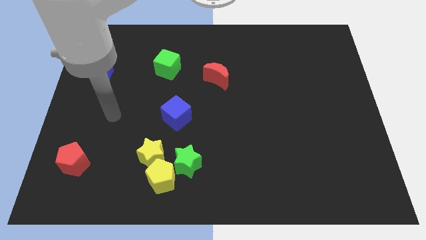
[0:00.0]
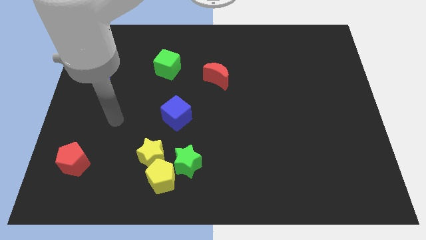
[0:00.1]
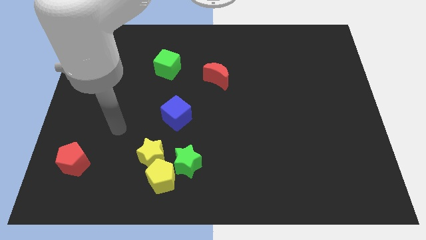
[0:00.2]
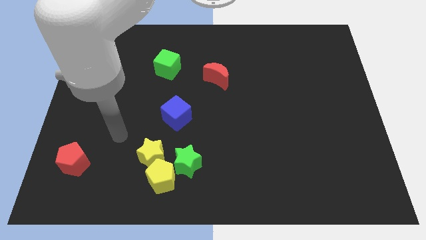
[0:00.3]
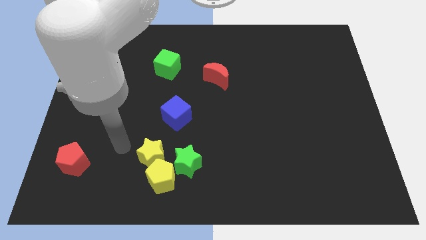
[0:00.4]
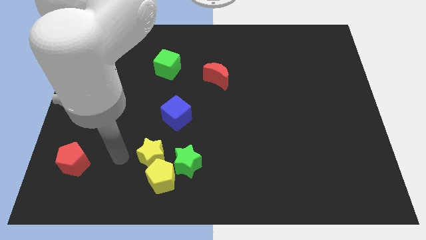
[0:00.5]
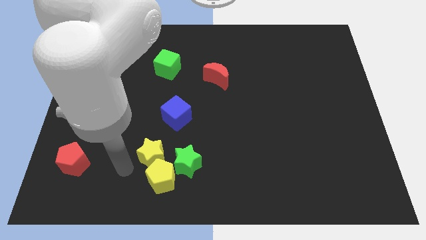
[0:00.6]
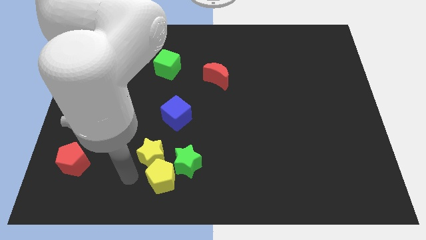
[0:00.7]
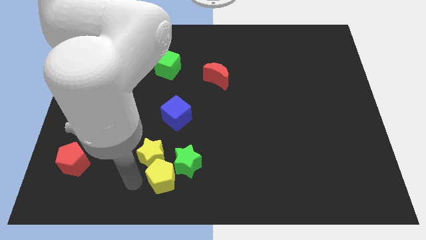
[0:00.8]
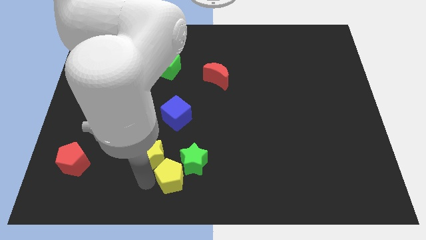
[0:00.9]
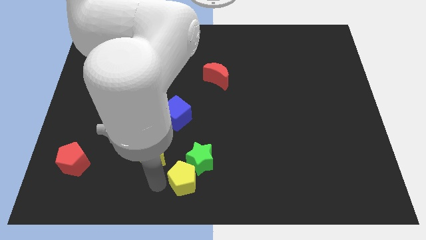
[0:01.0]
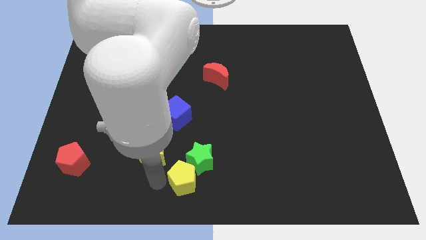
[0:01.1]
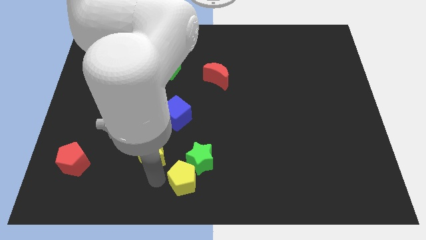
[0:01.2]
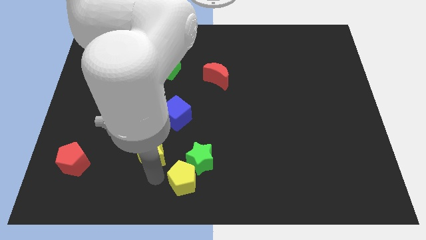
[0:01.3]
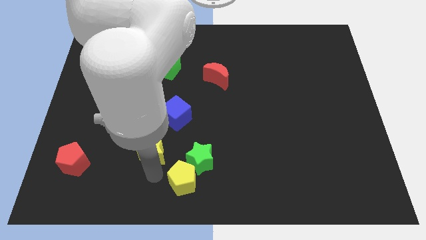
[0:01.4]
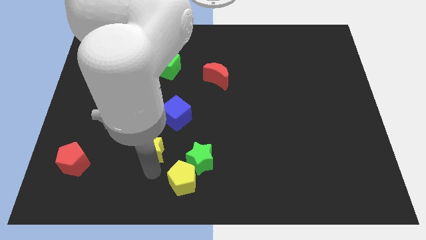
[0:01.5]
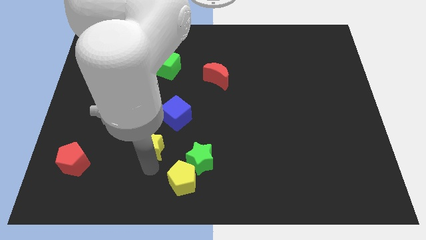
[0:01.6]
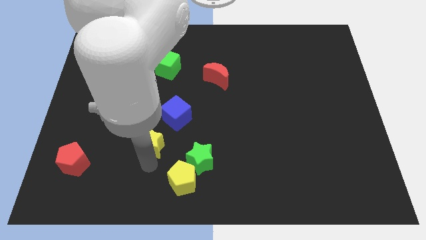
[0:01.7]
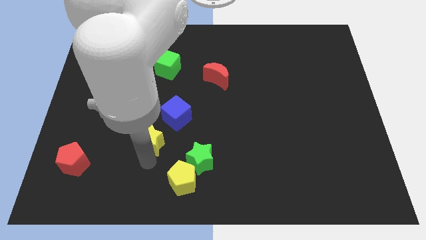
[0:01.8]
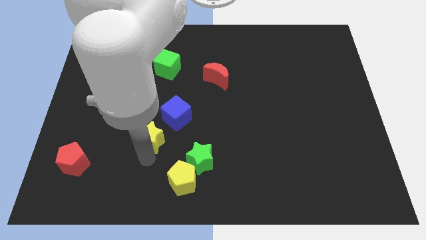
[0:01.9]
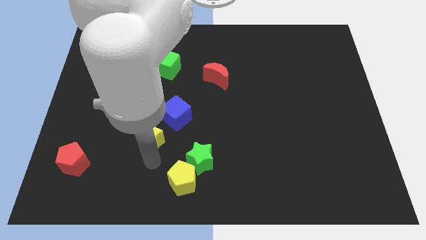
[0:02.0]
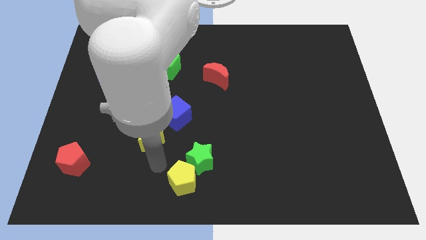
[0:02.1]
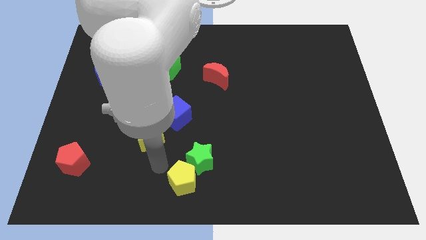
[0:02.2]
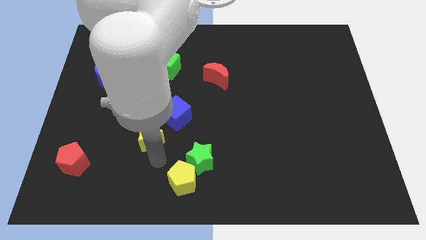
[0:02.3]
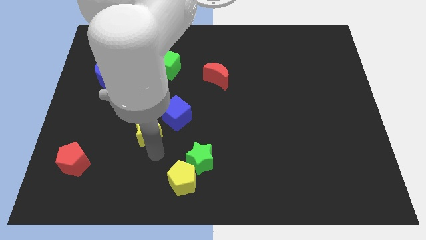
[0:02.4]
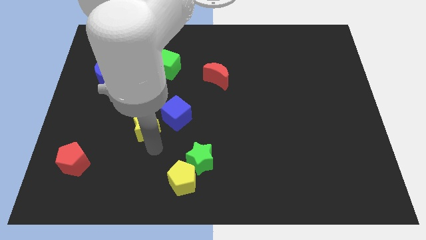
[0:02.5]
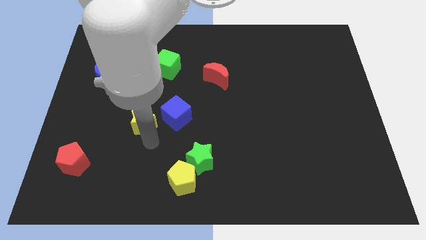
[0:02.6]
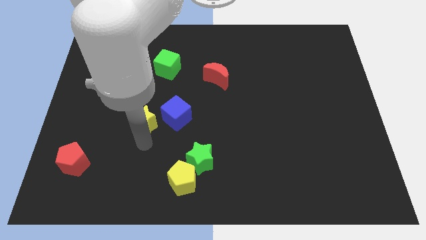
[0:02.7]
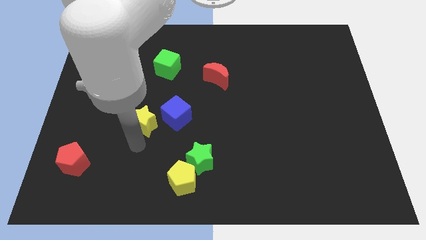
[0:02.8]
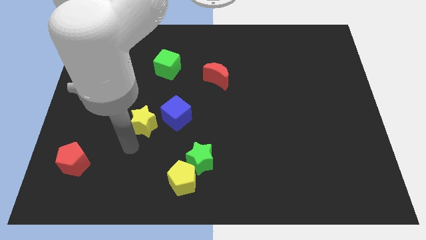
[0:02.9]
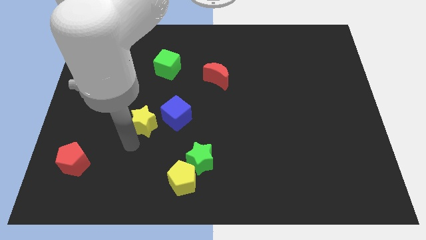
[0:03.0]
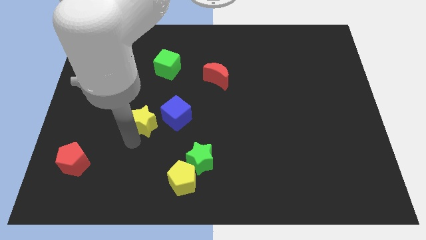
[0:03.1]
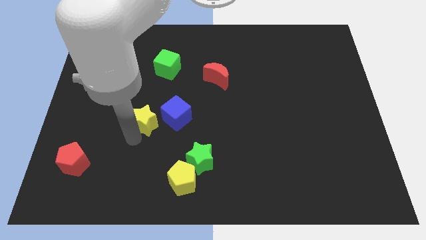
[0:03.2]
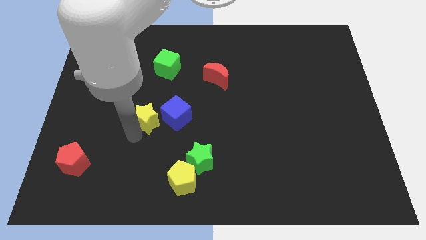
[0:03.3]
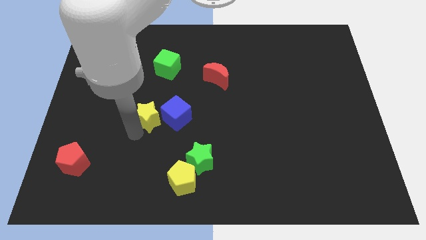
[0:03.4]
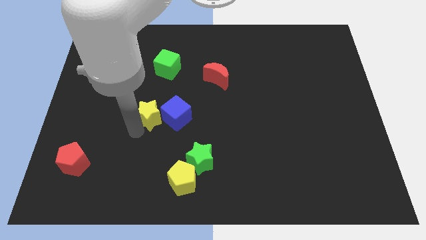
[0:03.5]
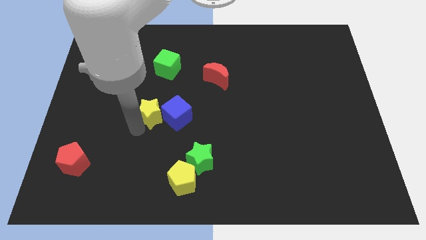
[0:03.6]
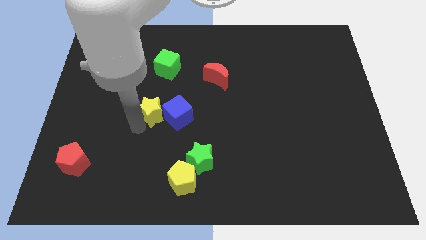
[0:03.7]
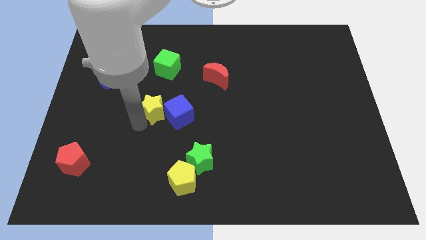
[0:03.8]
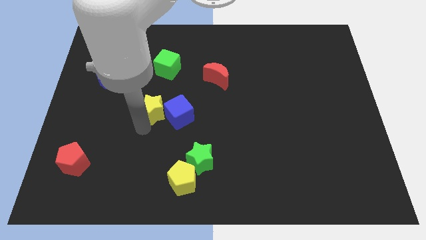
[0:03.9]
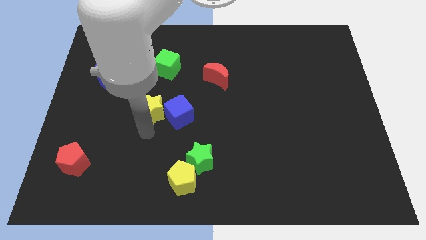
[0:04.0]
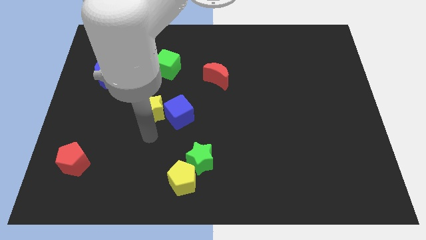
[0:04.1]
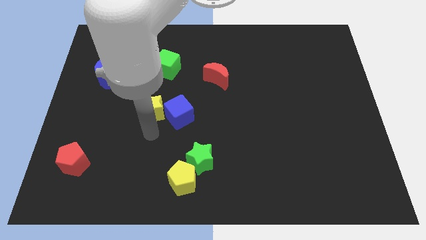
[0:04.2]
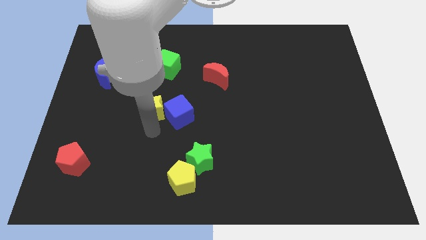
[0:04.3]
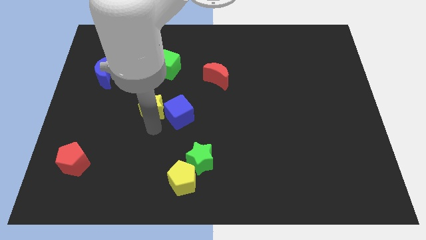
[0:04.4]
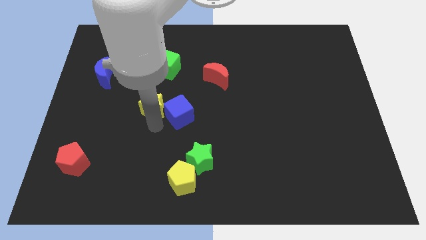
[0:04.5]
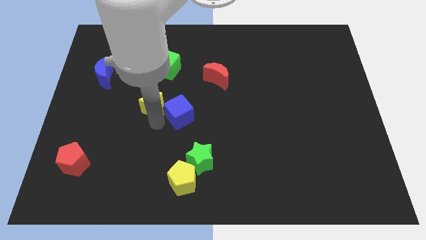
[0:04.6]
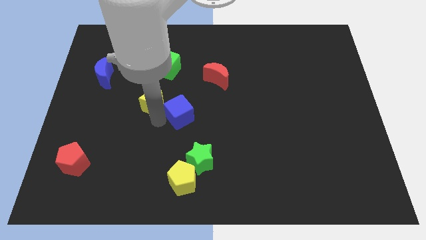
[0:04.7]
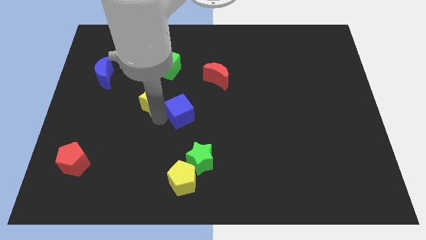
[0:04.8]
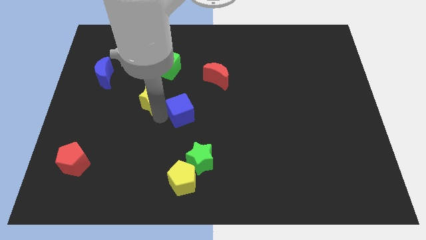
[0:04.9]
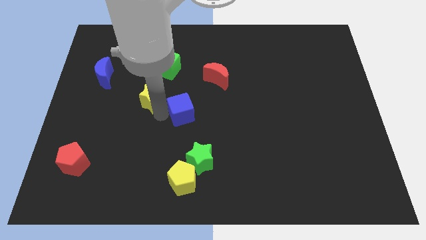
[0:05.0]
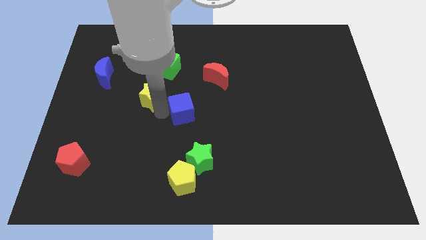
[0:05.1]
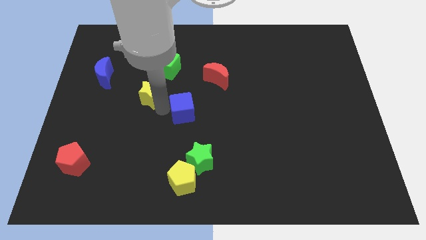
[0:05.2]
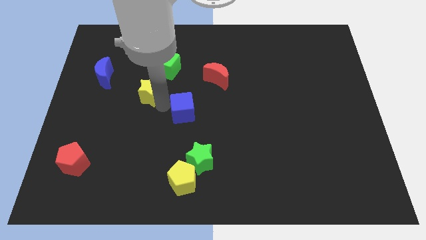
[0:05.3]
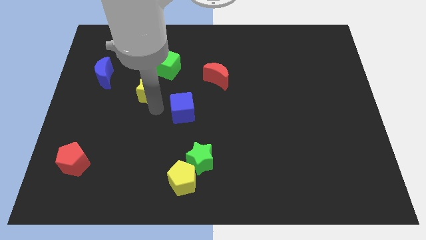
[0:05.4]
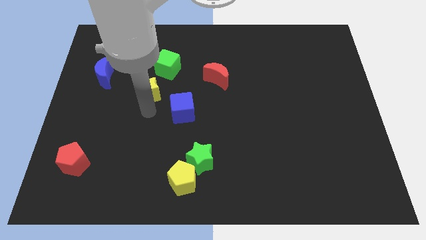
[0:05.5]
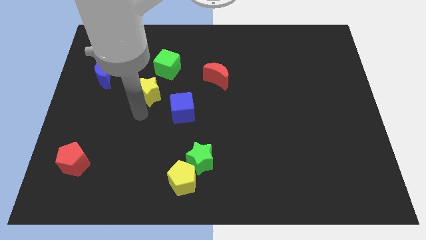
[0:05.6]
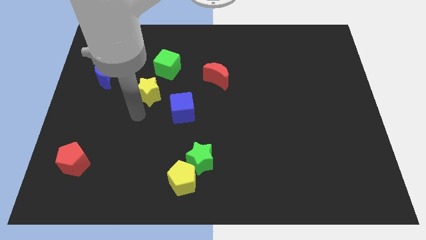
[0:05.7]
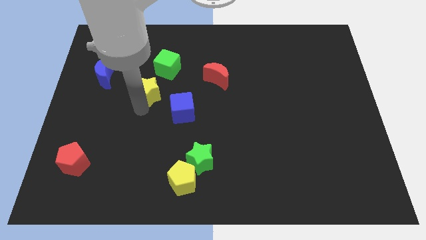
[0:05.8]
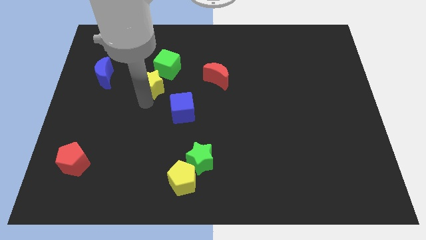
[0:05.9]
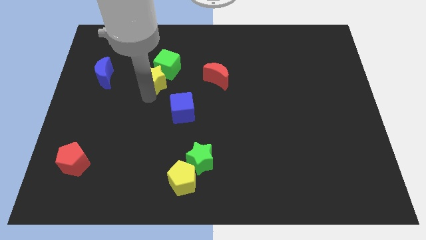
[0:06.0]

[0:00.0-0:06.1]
slide the yellow star close to the green cube
